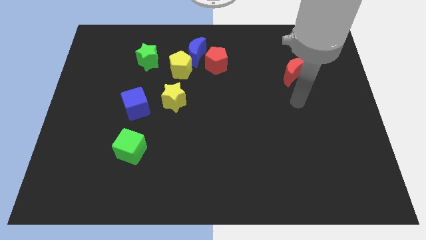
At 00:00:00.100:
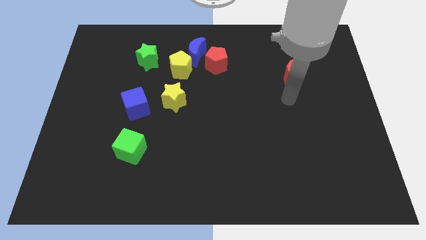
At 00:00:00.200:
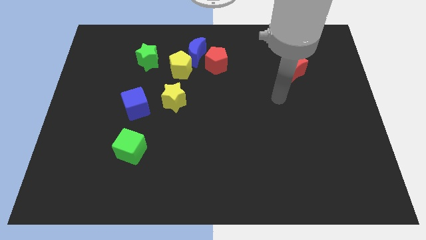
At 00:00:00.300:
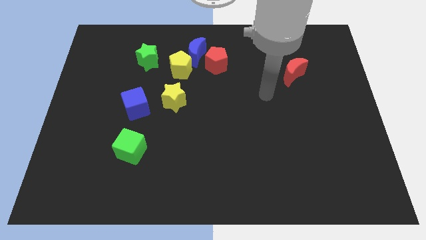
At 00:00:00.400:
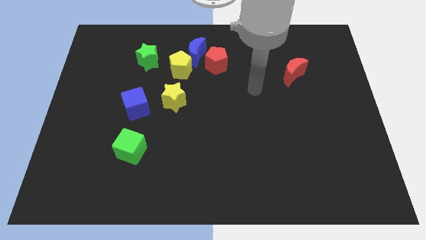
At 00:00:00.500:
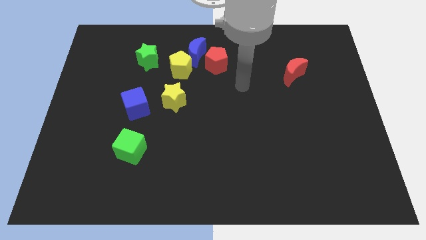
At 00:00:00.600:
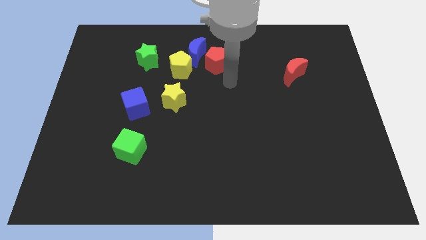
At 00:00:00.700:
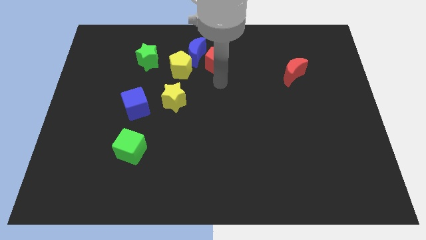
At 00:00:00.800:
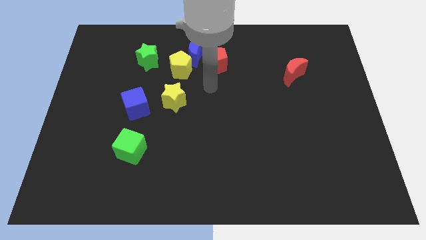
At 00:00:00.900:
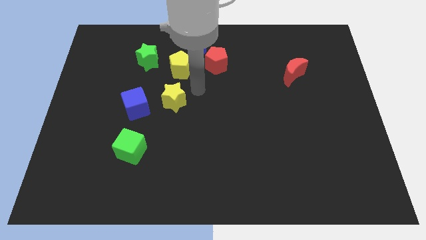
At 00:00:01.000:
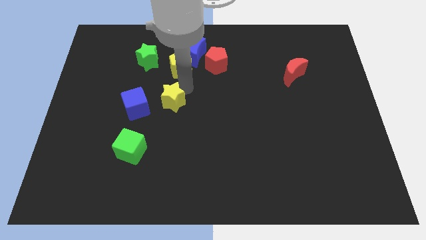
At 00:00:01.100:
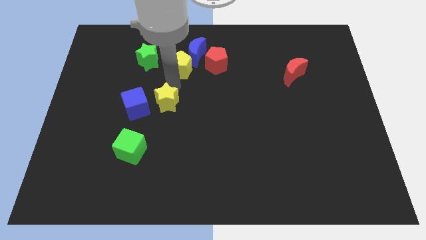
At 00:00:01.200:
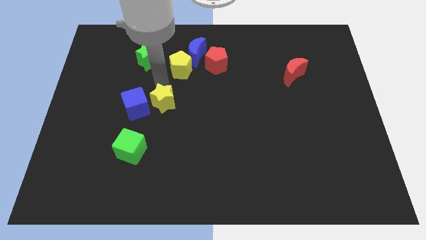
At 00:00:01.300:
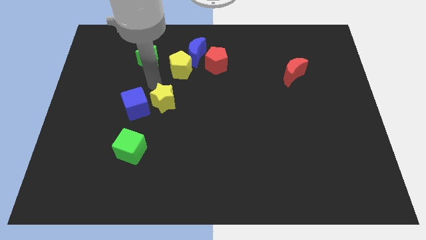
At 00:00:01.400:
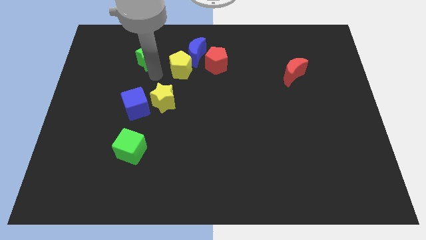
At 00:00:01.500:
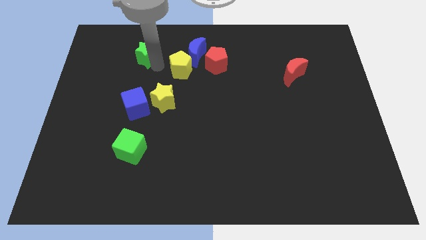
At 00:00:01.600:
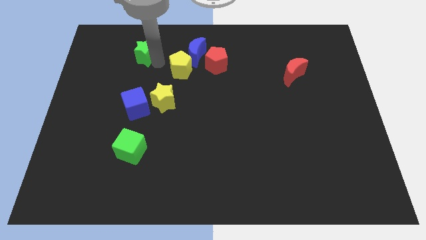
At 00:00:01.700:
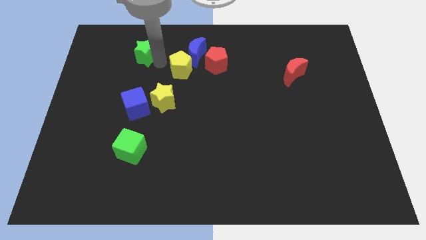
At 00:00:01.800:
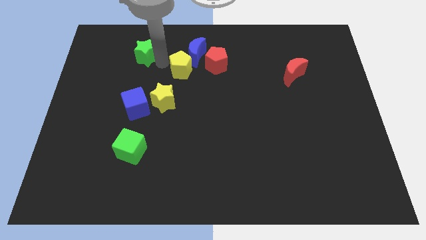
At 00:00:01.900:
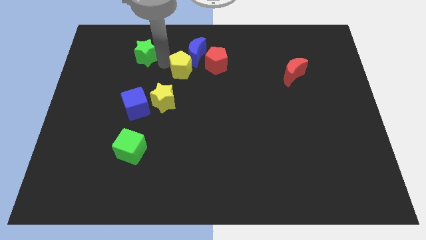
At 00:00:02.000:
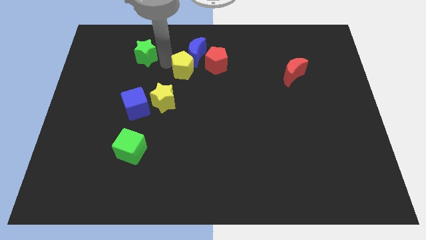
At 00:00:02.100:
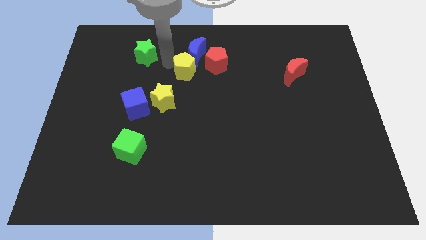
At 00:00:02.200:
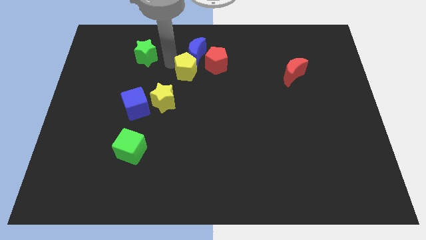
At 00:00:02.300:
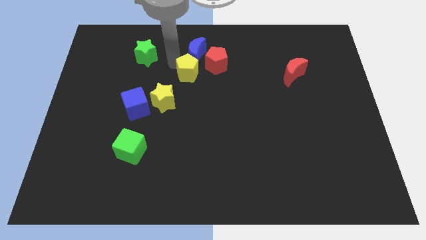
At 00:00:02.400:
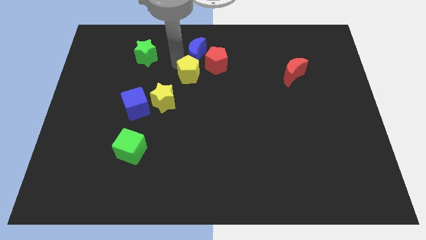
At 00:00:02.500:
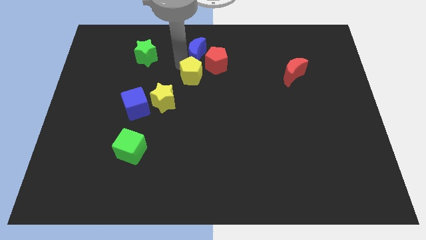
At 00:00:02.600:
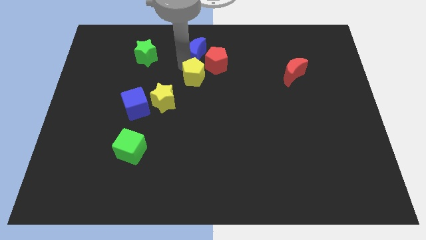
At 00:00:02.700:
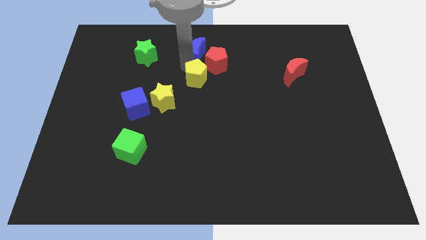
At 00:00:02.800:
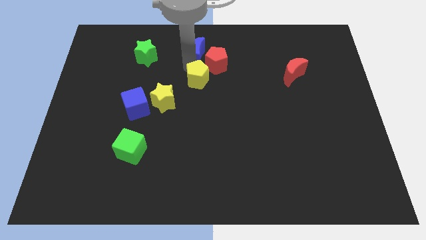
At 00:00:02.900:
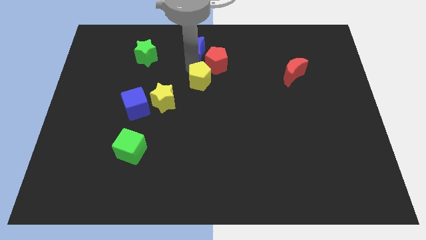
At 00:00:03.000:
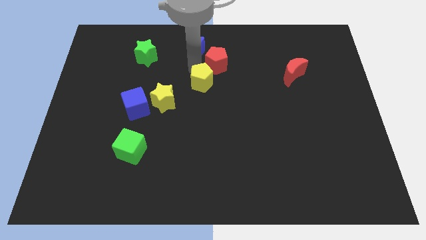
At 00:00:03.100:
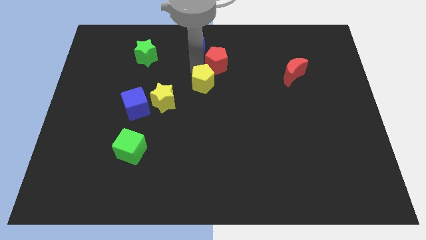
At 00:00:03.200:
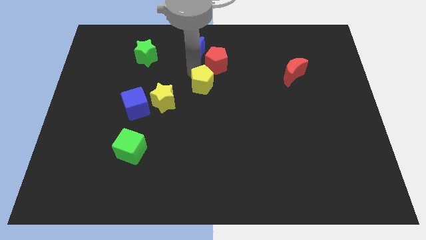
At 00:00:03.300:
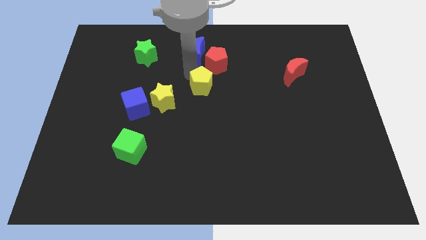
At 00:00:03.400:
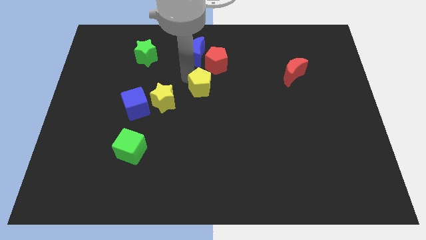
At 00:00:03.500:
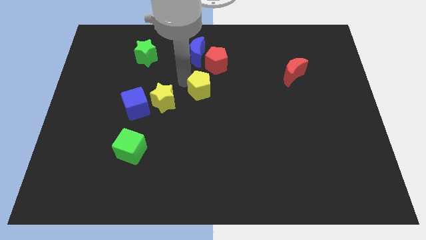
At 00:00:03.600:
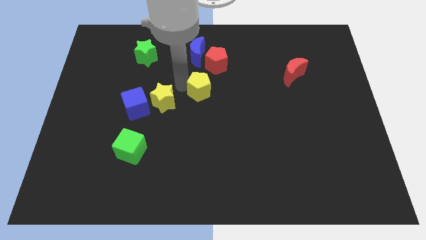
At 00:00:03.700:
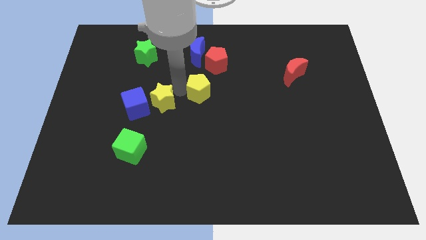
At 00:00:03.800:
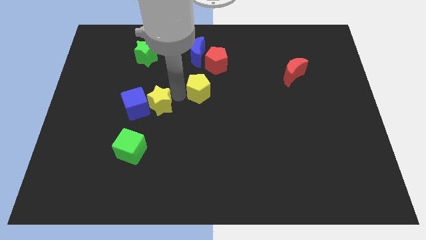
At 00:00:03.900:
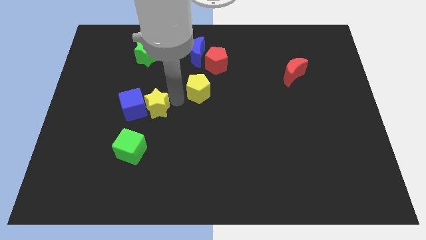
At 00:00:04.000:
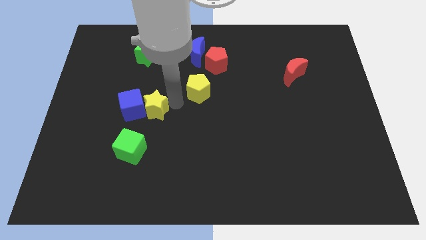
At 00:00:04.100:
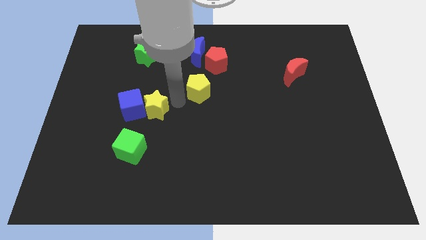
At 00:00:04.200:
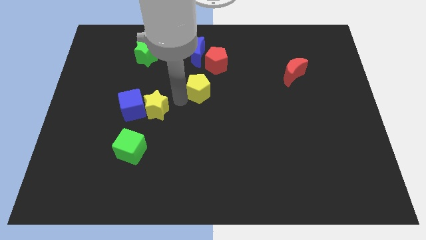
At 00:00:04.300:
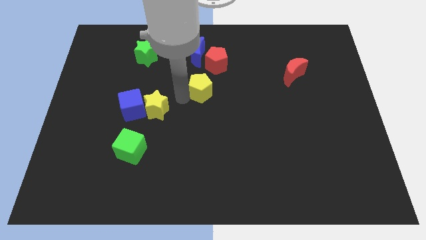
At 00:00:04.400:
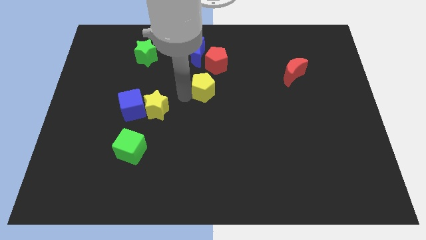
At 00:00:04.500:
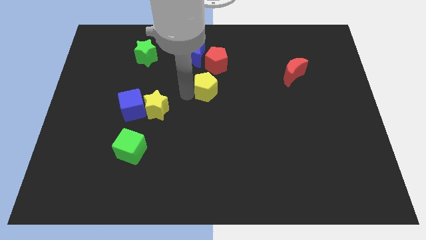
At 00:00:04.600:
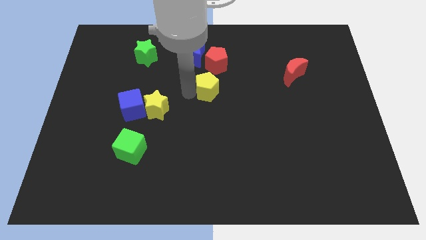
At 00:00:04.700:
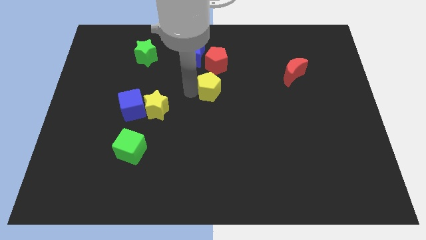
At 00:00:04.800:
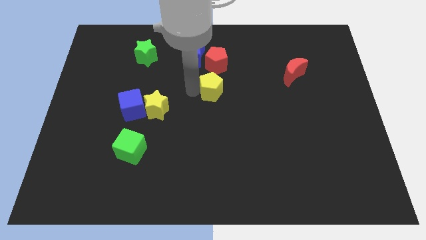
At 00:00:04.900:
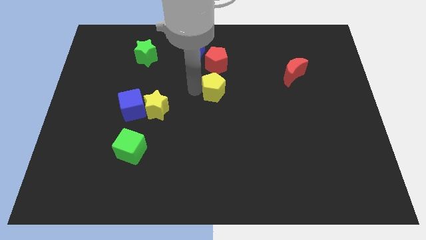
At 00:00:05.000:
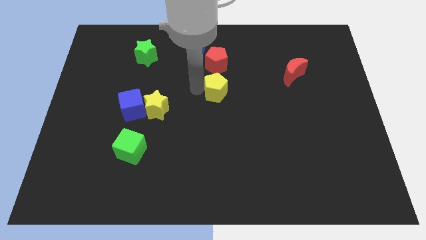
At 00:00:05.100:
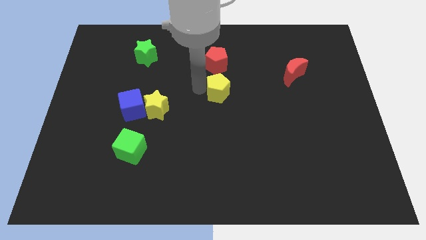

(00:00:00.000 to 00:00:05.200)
move the yellow pentagon slightly right

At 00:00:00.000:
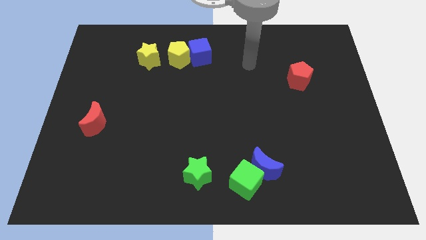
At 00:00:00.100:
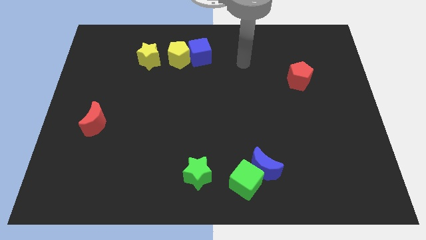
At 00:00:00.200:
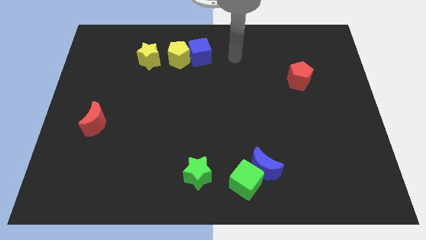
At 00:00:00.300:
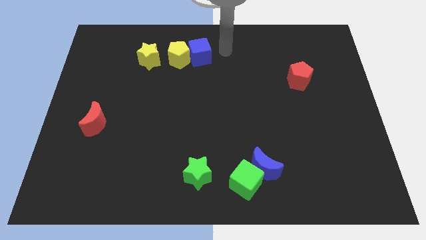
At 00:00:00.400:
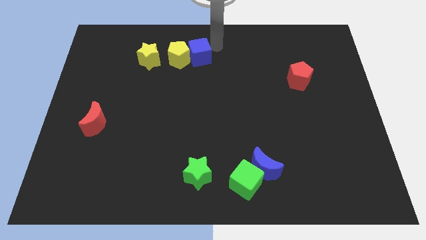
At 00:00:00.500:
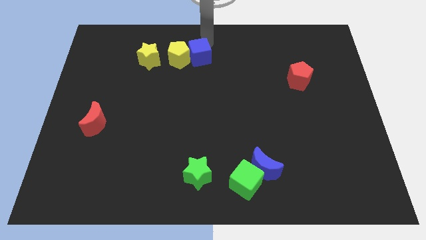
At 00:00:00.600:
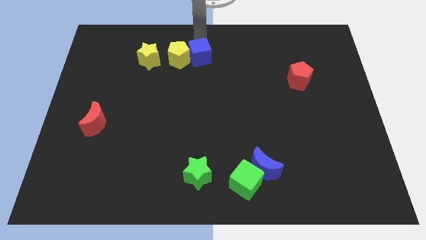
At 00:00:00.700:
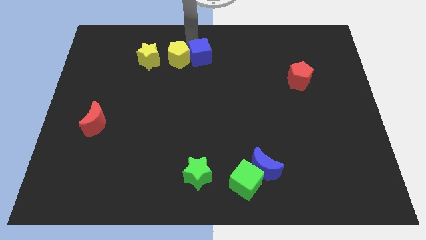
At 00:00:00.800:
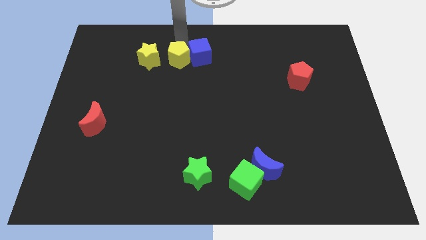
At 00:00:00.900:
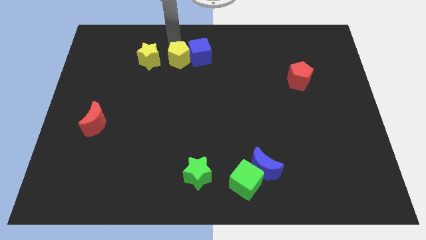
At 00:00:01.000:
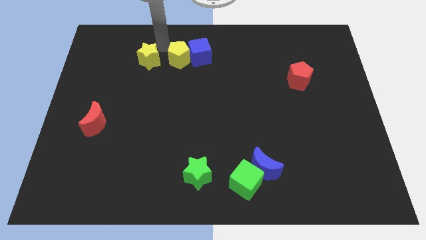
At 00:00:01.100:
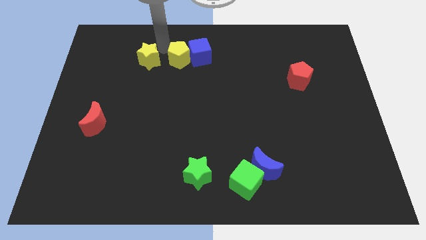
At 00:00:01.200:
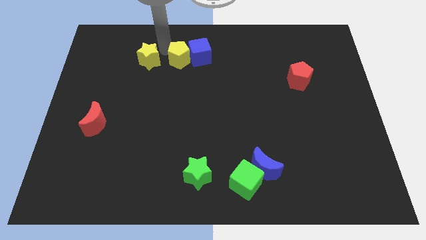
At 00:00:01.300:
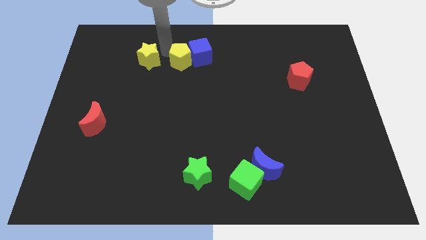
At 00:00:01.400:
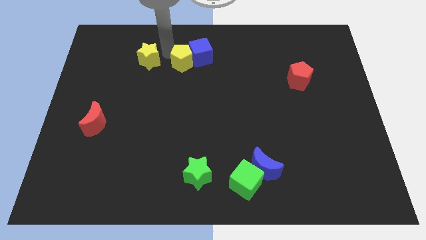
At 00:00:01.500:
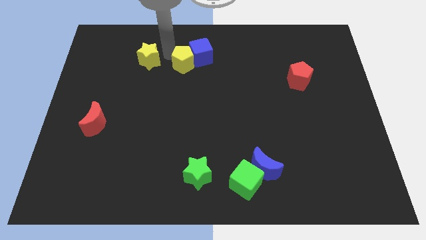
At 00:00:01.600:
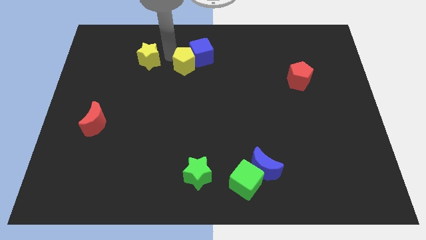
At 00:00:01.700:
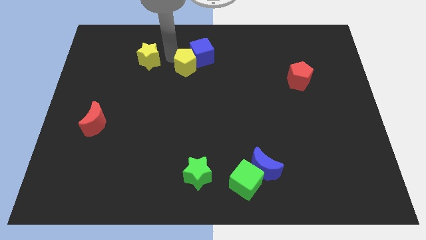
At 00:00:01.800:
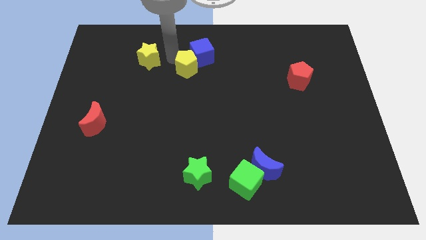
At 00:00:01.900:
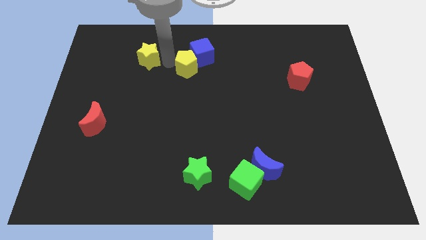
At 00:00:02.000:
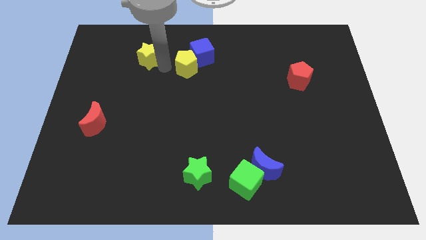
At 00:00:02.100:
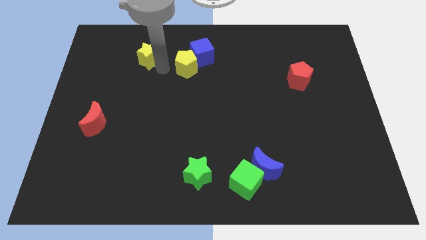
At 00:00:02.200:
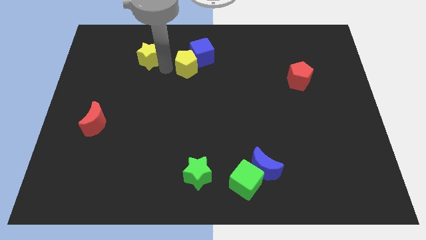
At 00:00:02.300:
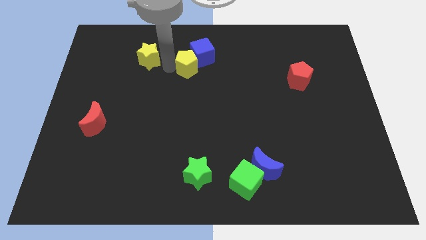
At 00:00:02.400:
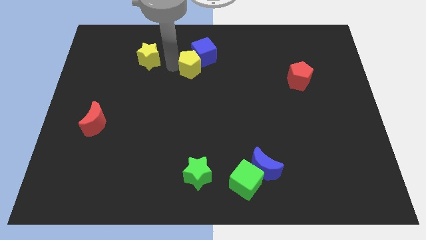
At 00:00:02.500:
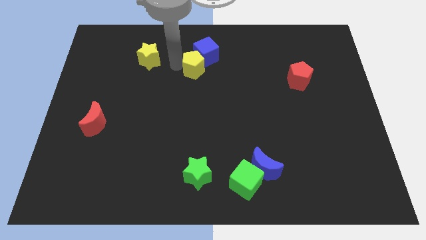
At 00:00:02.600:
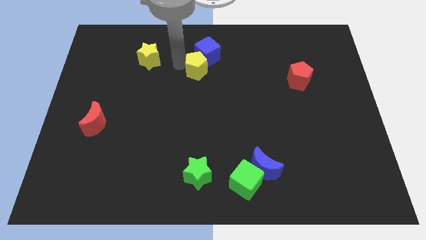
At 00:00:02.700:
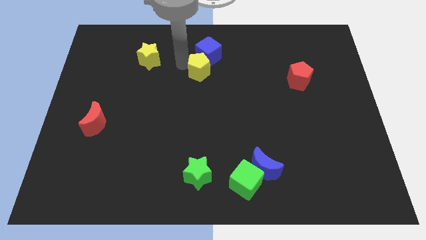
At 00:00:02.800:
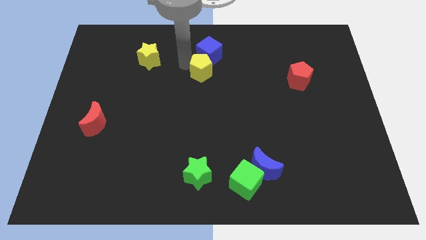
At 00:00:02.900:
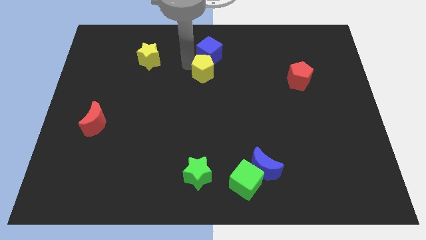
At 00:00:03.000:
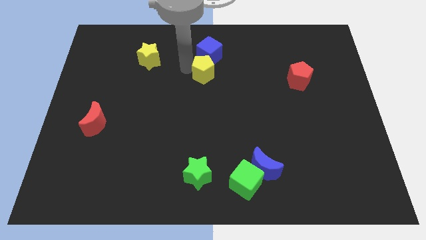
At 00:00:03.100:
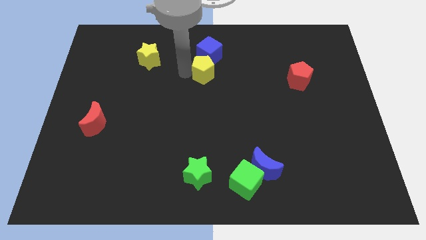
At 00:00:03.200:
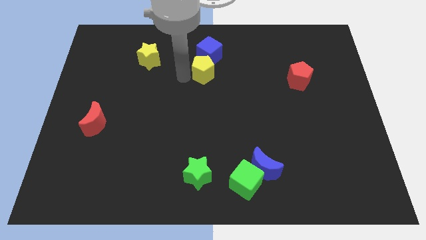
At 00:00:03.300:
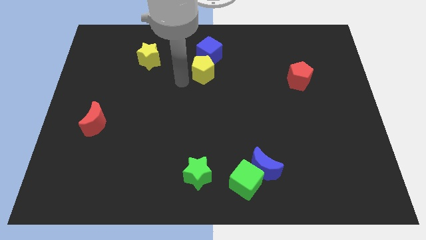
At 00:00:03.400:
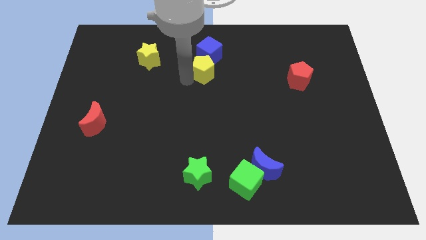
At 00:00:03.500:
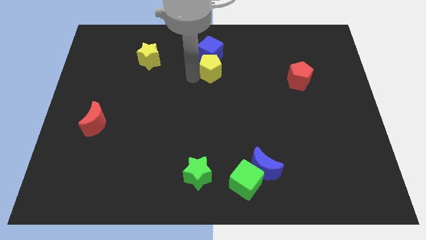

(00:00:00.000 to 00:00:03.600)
slide the yellow pentagon a bit to the right
